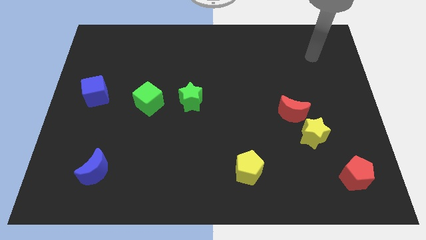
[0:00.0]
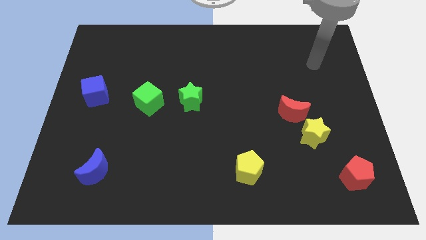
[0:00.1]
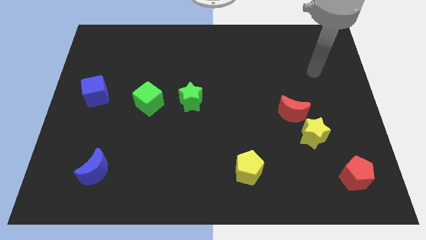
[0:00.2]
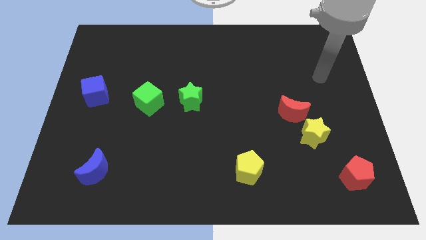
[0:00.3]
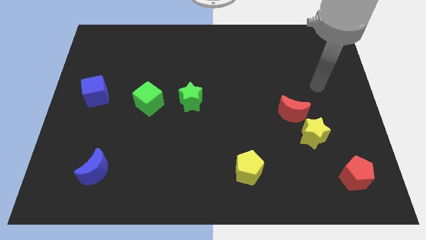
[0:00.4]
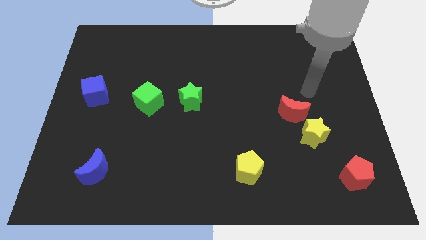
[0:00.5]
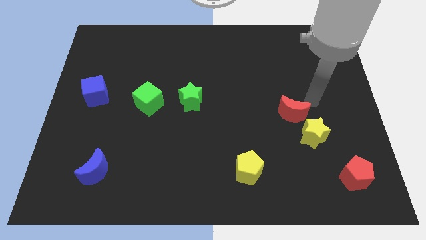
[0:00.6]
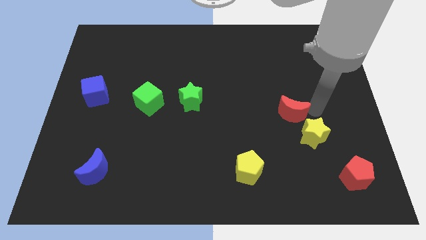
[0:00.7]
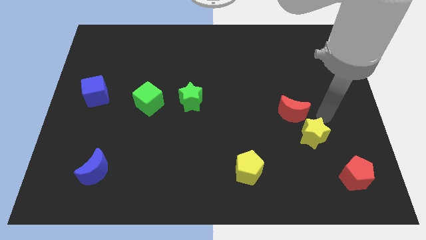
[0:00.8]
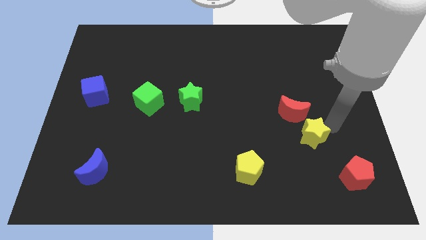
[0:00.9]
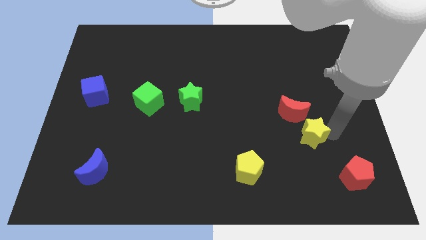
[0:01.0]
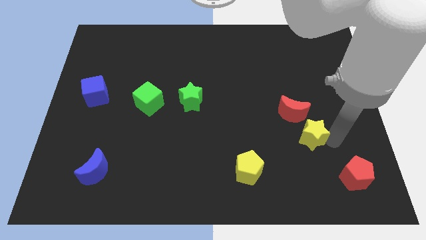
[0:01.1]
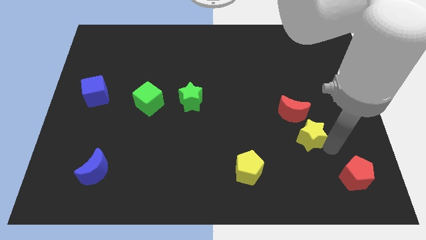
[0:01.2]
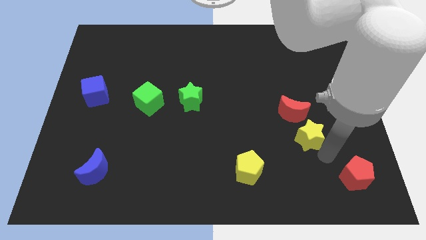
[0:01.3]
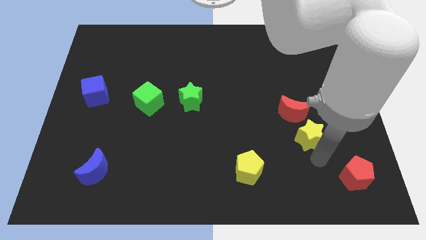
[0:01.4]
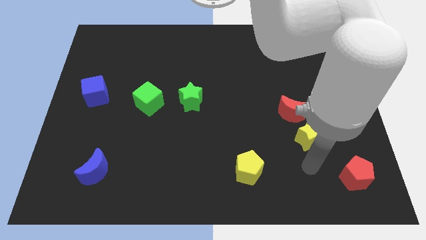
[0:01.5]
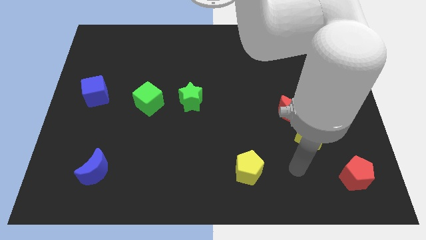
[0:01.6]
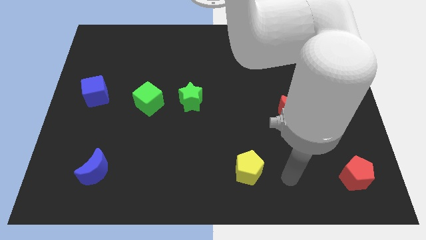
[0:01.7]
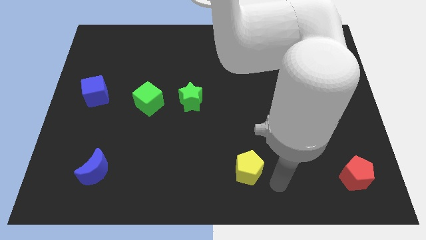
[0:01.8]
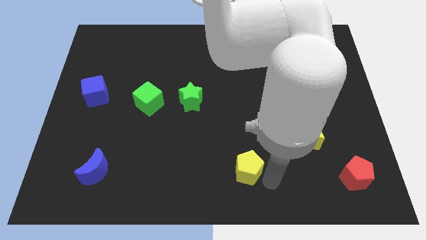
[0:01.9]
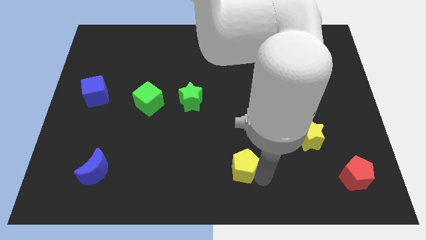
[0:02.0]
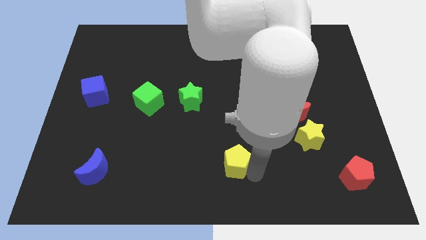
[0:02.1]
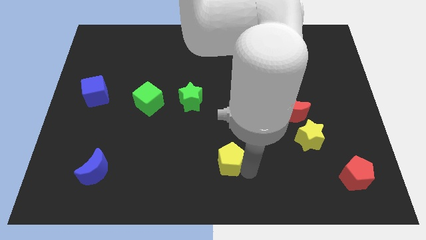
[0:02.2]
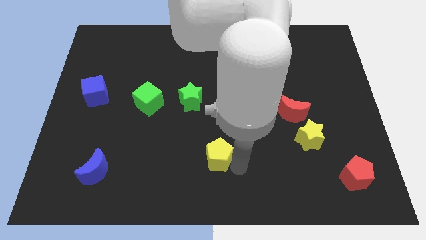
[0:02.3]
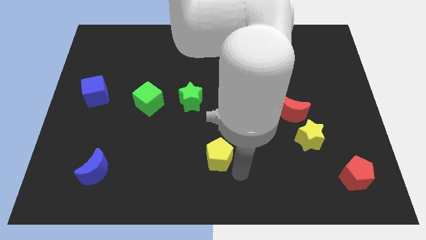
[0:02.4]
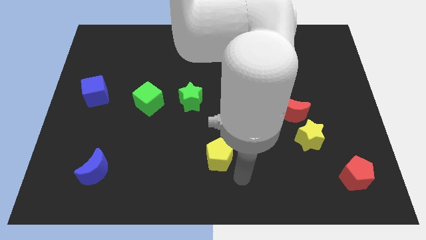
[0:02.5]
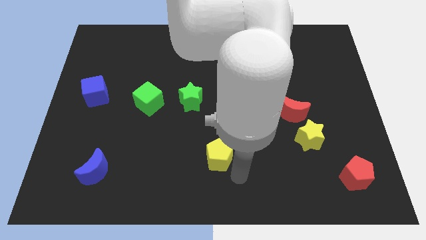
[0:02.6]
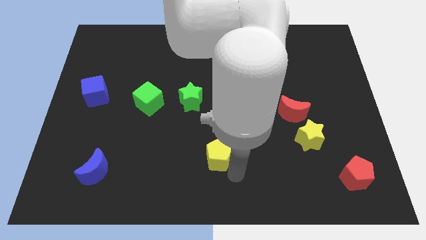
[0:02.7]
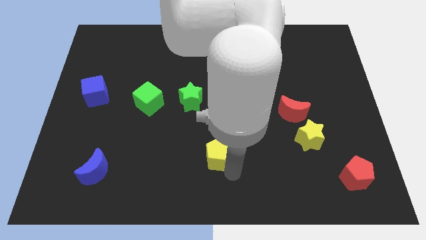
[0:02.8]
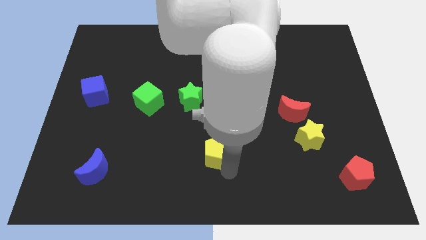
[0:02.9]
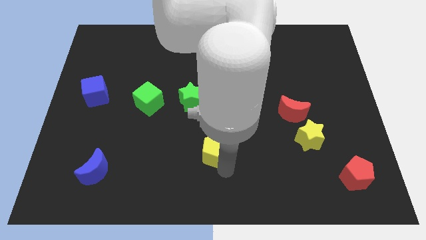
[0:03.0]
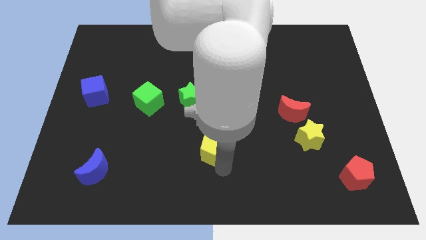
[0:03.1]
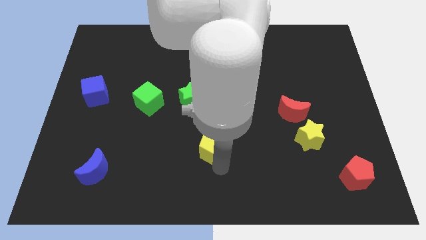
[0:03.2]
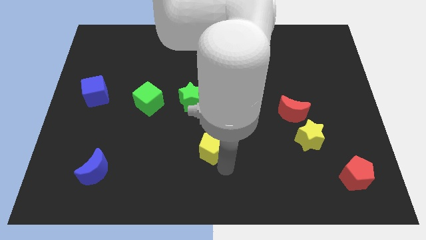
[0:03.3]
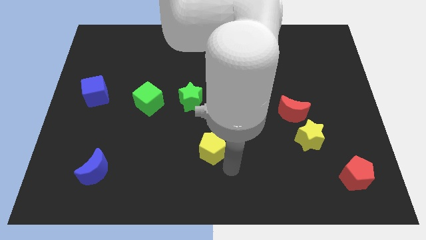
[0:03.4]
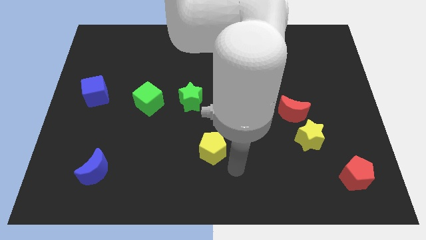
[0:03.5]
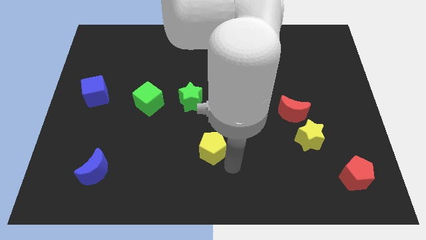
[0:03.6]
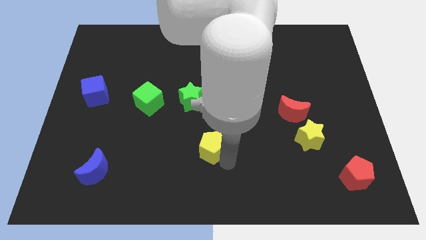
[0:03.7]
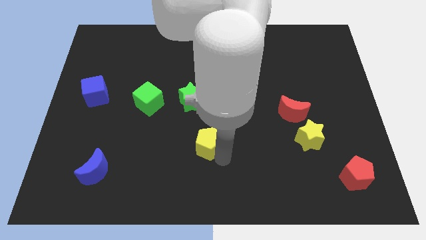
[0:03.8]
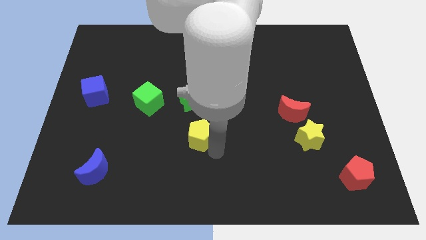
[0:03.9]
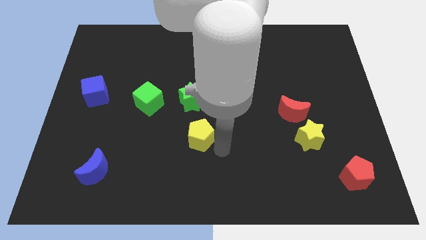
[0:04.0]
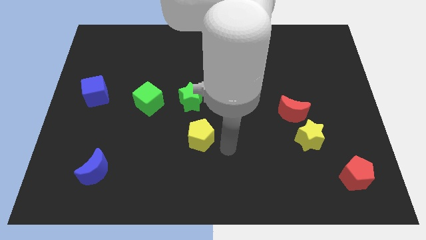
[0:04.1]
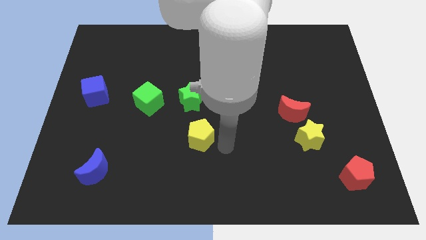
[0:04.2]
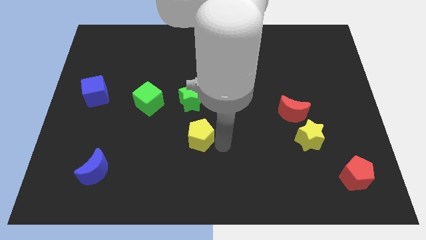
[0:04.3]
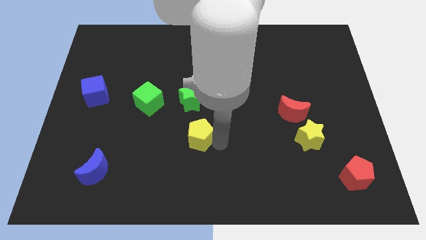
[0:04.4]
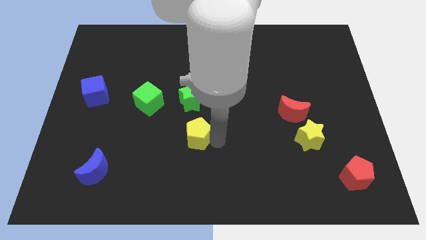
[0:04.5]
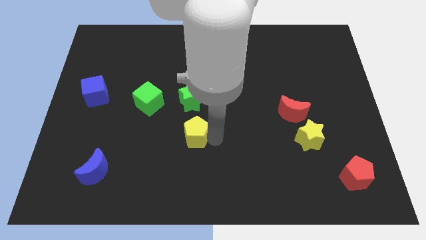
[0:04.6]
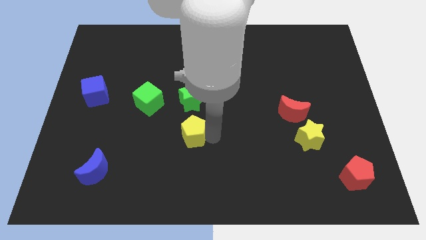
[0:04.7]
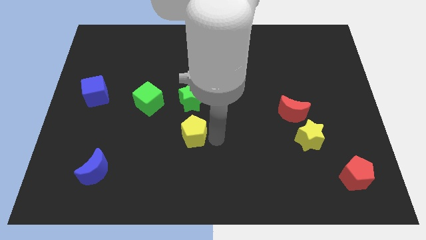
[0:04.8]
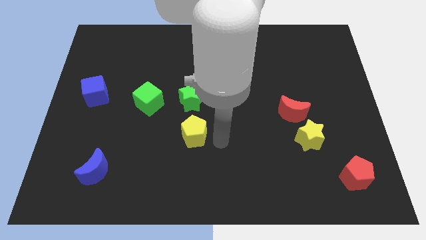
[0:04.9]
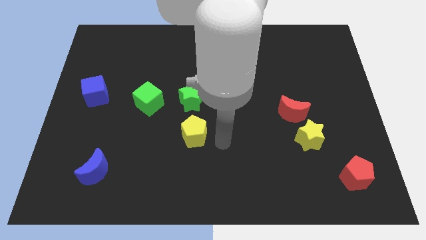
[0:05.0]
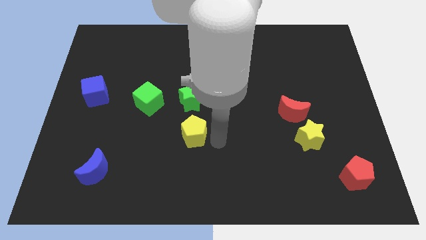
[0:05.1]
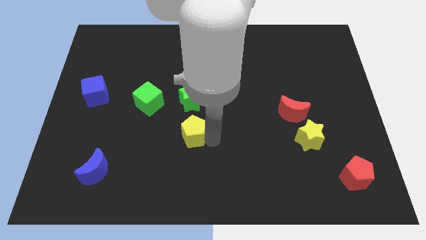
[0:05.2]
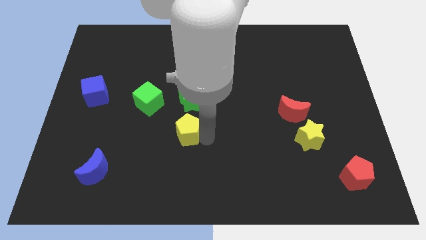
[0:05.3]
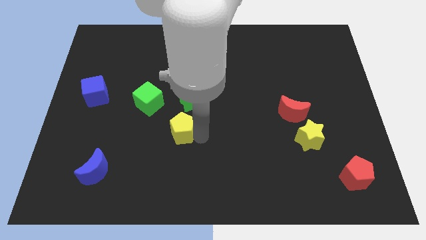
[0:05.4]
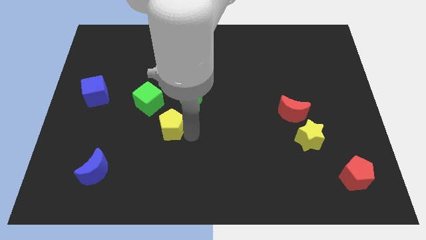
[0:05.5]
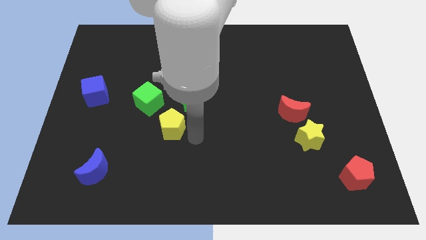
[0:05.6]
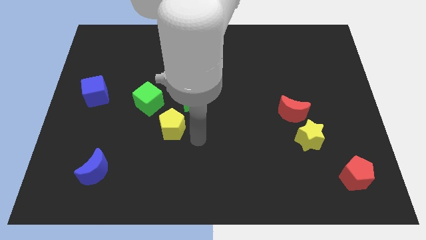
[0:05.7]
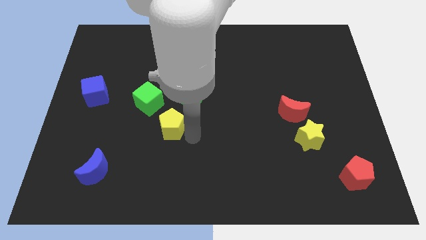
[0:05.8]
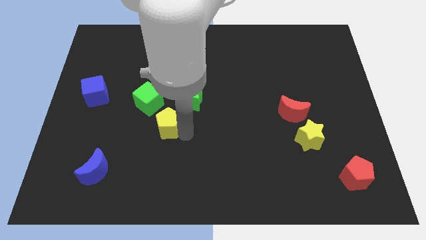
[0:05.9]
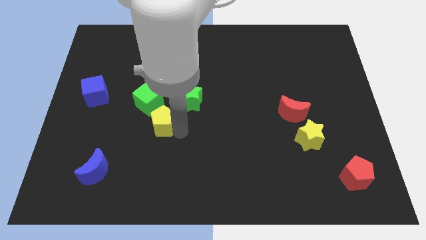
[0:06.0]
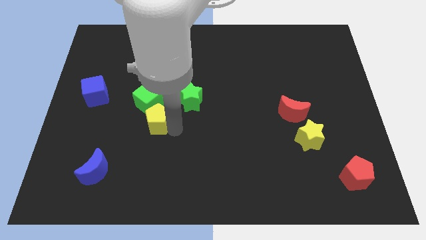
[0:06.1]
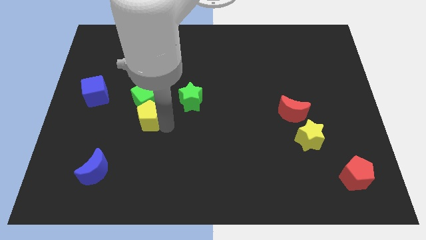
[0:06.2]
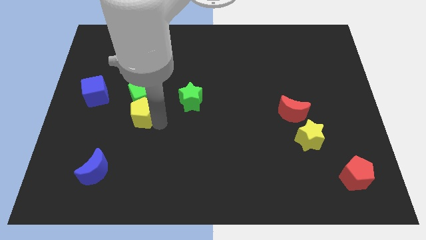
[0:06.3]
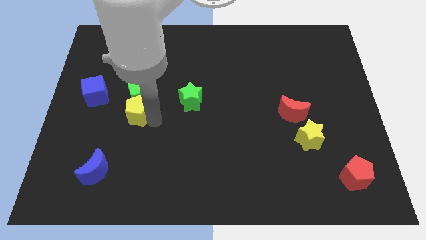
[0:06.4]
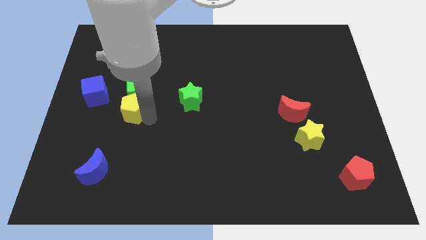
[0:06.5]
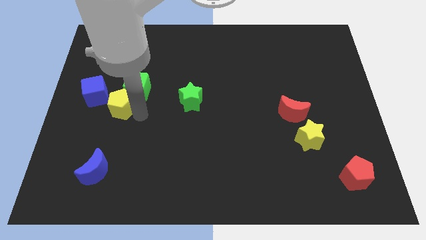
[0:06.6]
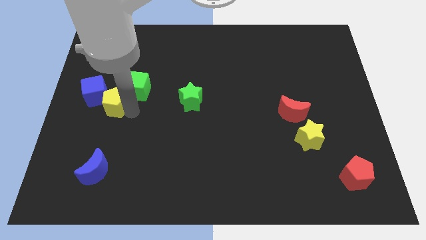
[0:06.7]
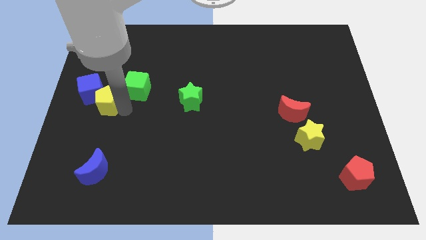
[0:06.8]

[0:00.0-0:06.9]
push the yellow pentagon next to the blue cube

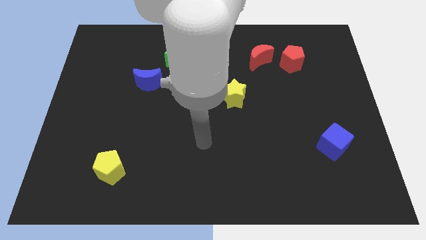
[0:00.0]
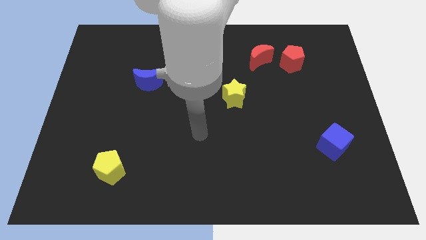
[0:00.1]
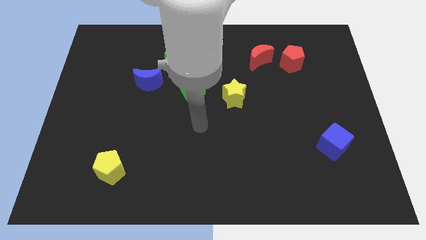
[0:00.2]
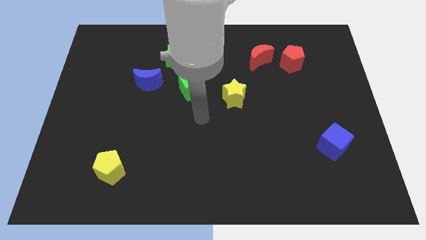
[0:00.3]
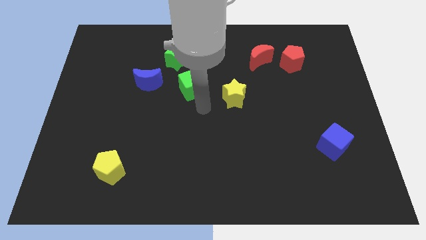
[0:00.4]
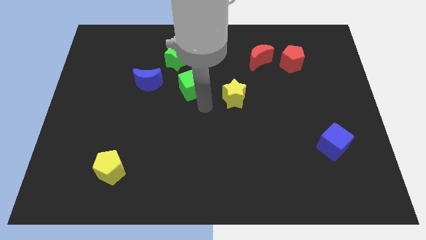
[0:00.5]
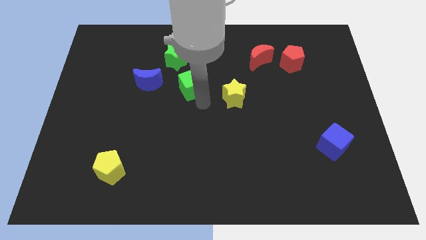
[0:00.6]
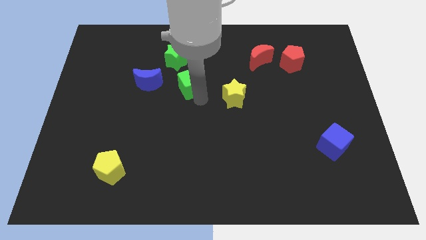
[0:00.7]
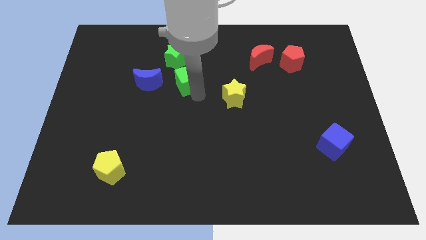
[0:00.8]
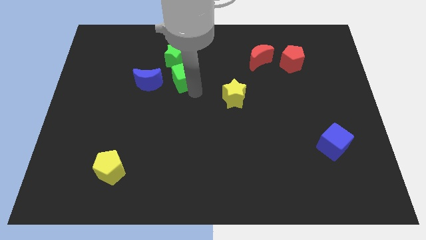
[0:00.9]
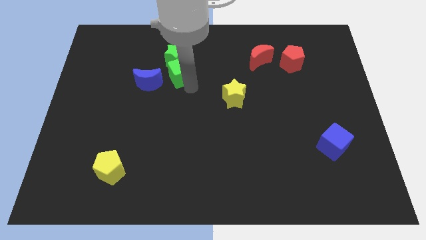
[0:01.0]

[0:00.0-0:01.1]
slide the green cube towards the green star
